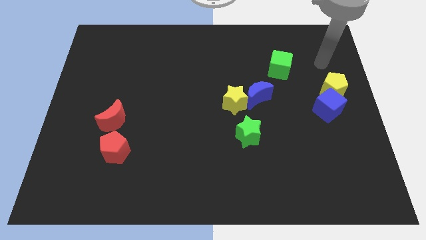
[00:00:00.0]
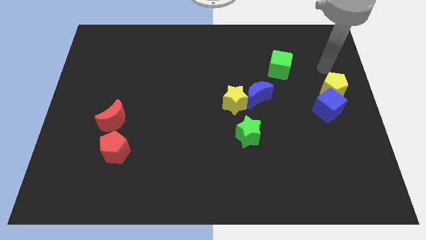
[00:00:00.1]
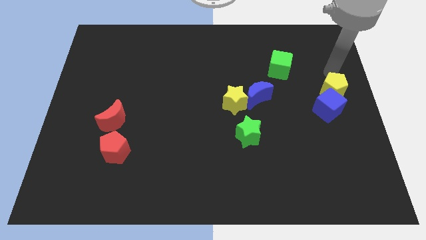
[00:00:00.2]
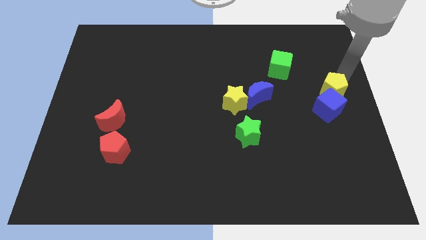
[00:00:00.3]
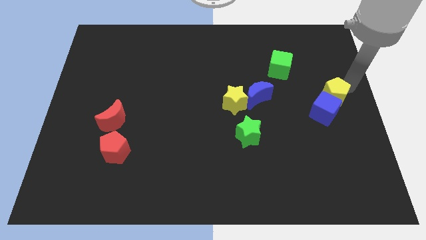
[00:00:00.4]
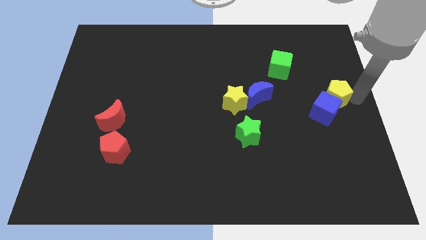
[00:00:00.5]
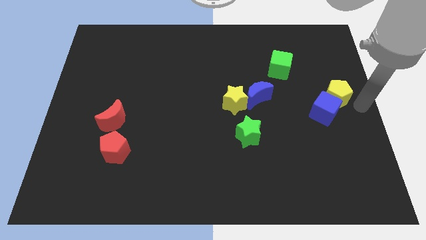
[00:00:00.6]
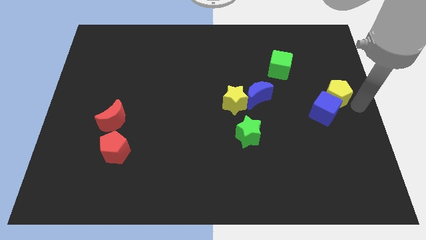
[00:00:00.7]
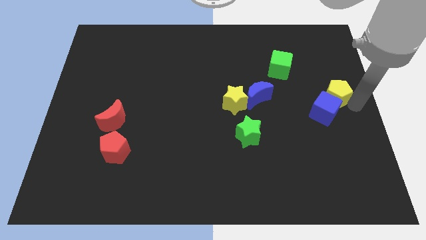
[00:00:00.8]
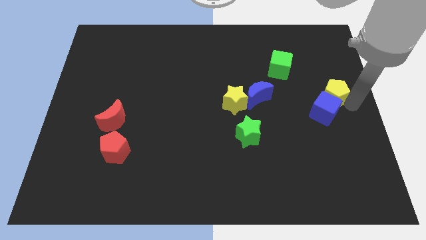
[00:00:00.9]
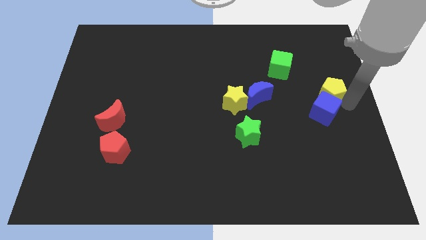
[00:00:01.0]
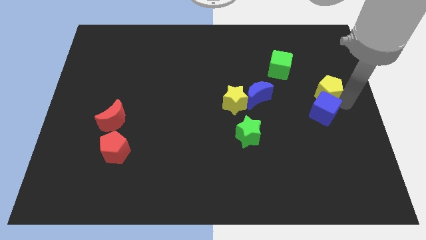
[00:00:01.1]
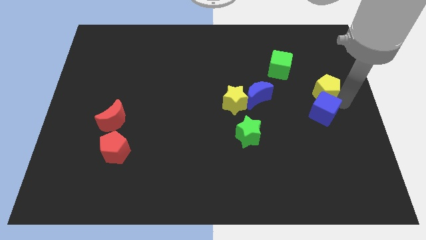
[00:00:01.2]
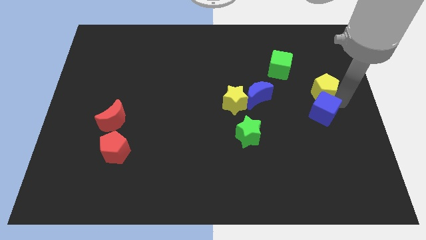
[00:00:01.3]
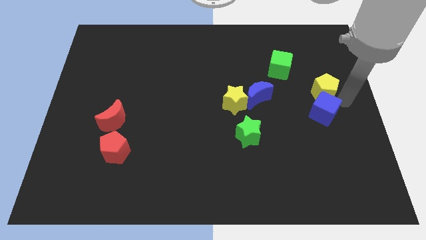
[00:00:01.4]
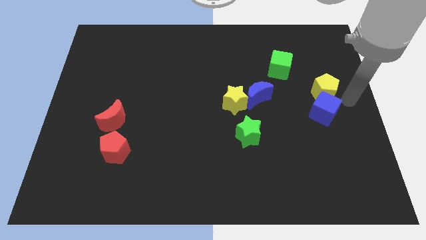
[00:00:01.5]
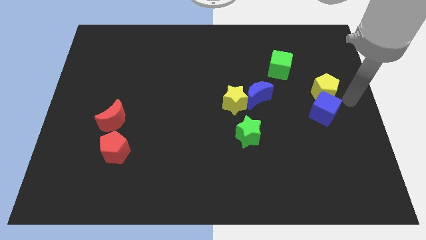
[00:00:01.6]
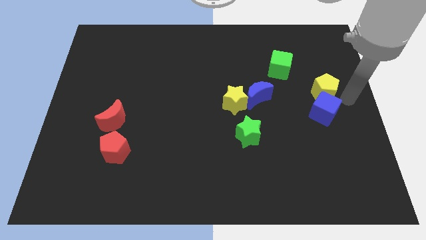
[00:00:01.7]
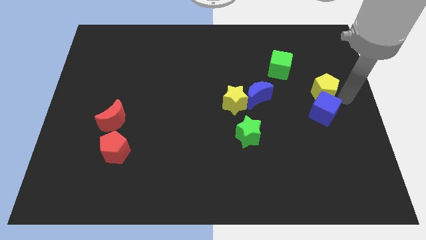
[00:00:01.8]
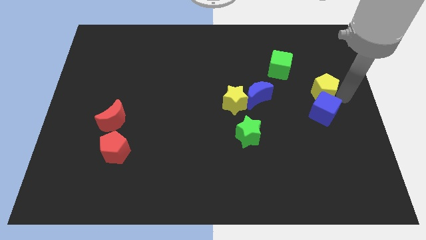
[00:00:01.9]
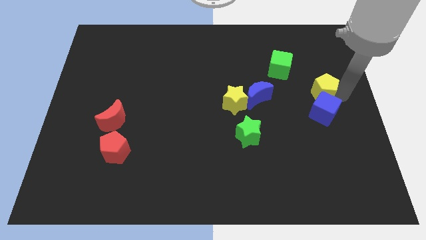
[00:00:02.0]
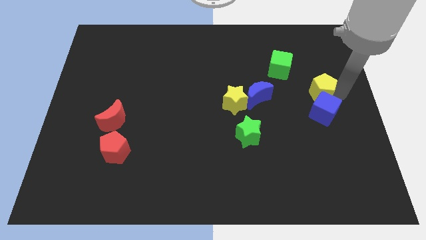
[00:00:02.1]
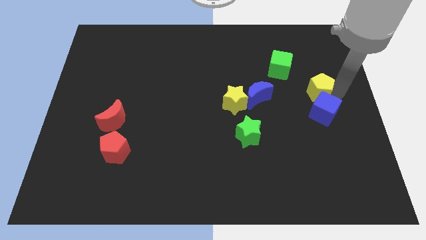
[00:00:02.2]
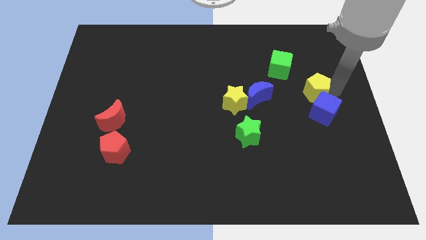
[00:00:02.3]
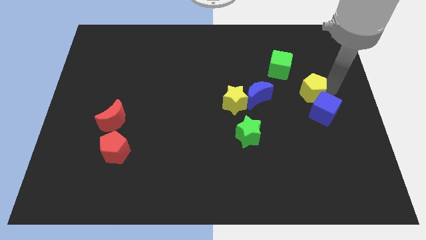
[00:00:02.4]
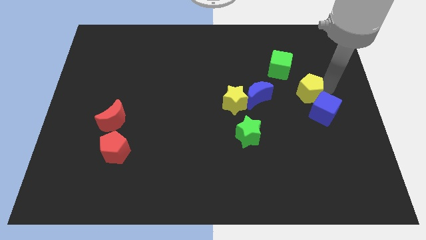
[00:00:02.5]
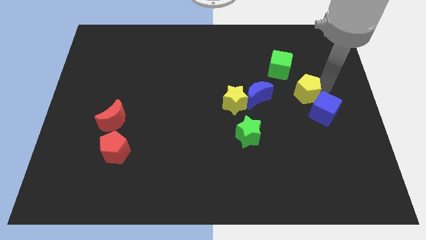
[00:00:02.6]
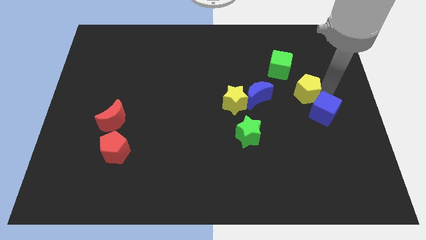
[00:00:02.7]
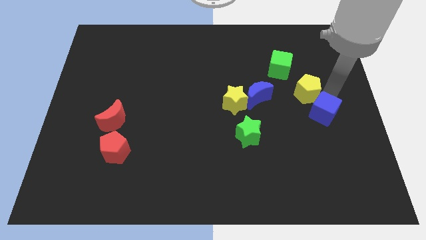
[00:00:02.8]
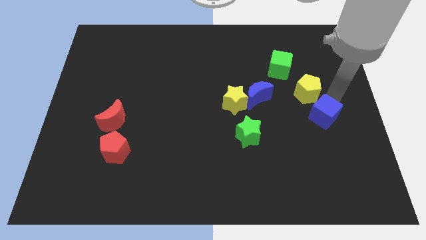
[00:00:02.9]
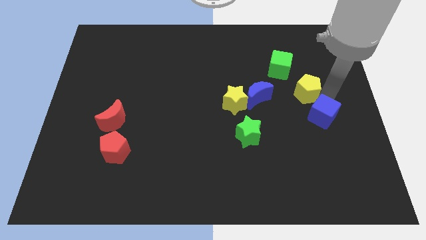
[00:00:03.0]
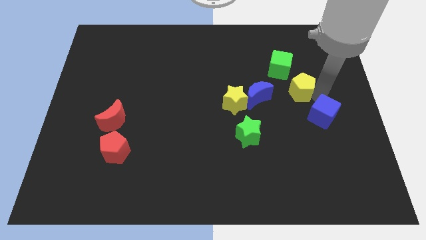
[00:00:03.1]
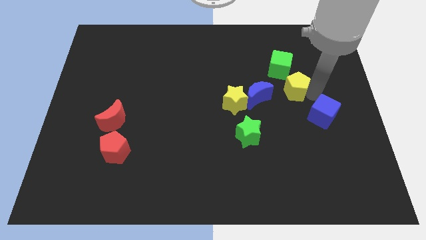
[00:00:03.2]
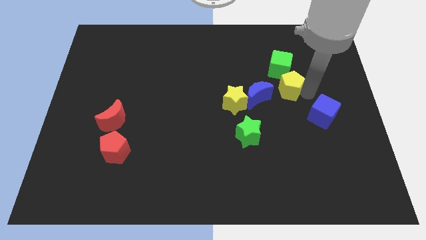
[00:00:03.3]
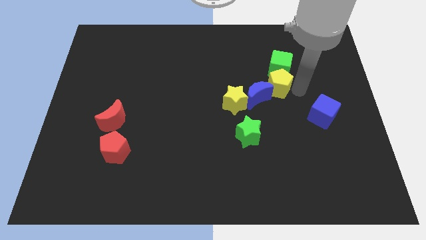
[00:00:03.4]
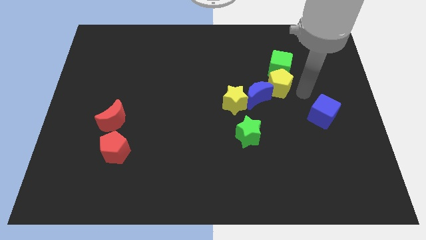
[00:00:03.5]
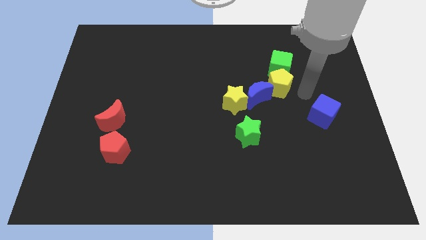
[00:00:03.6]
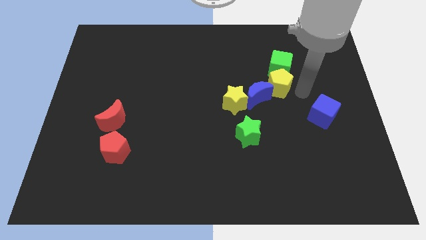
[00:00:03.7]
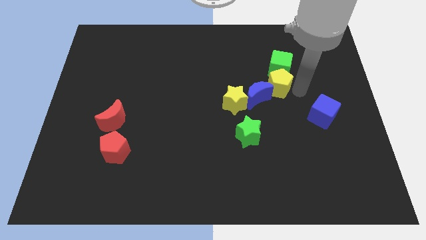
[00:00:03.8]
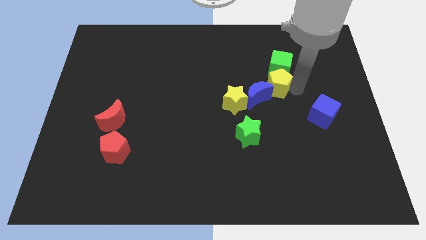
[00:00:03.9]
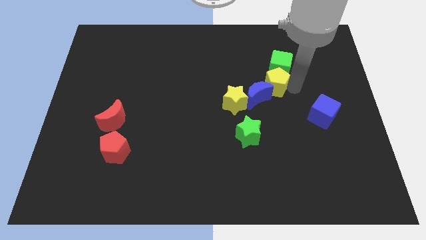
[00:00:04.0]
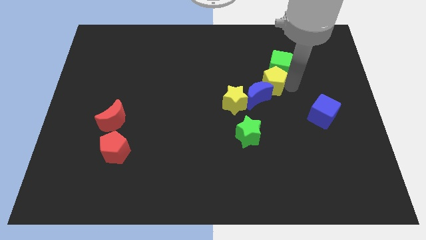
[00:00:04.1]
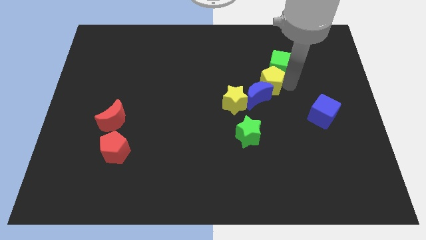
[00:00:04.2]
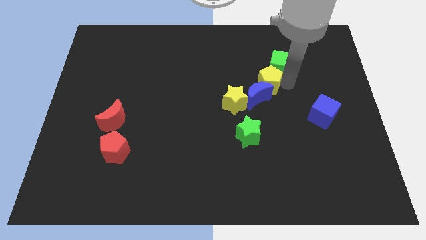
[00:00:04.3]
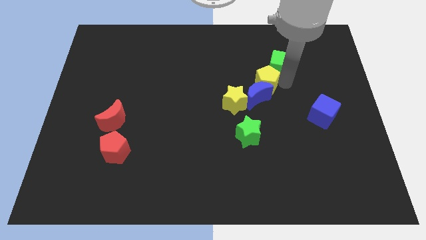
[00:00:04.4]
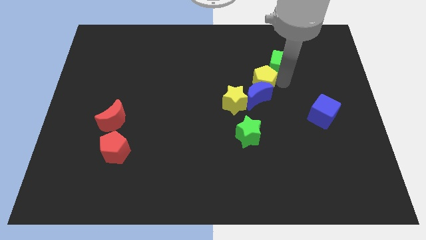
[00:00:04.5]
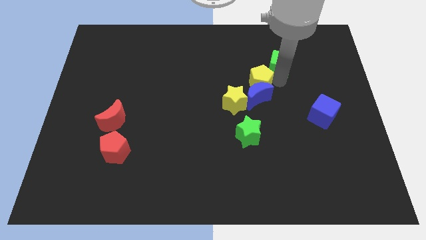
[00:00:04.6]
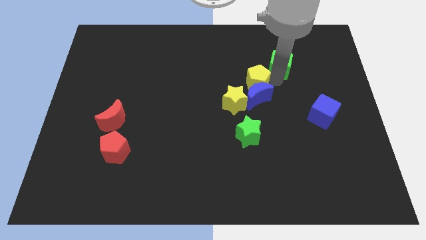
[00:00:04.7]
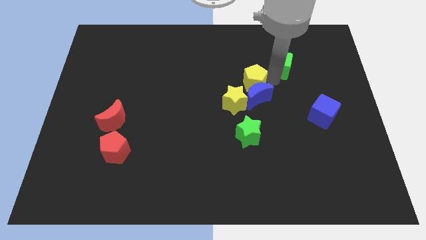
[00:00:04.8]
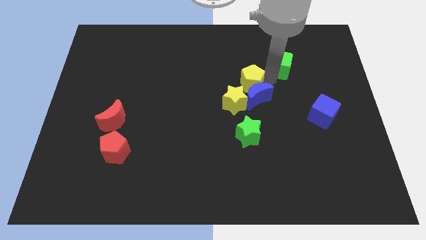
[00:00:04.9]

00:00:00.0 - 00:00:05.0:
push the yellow pentagon to the top side of the yellow star

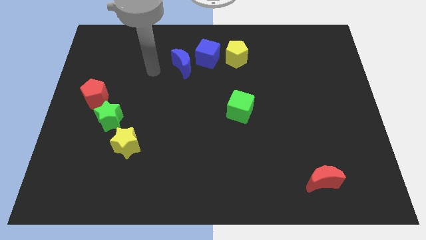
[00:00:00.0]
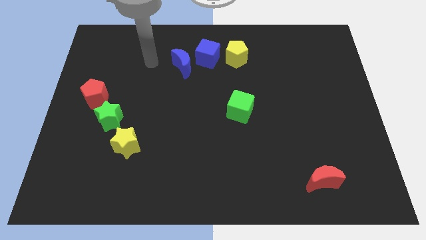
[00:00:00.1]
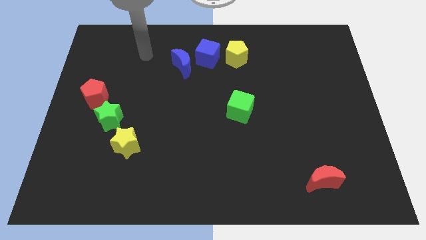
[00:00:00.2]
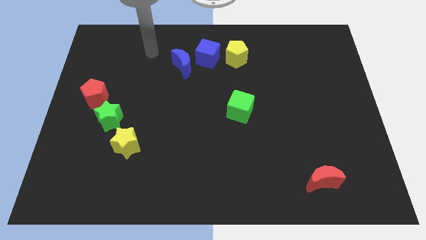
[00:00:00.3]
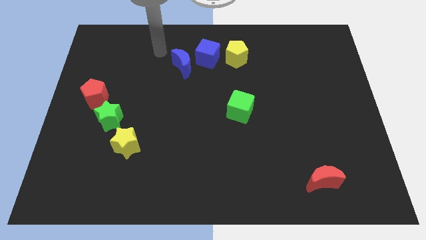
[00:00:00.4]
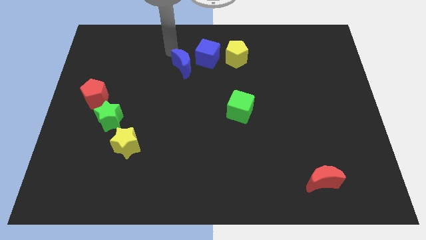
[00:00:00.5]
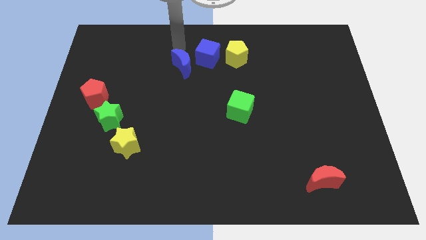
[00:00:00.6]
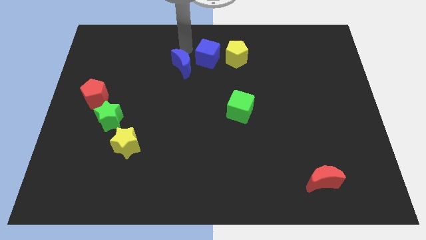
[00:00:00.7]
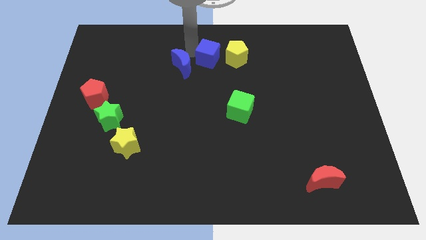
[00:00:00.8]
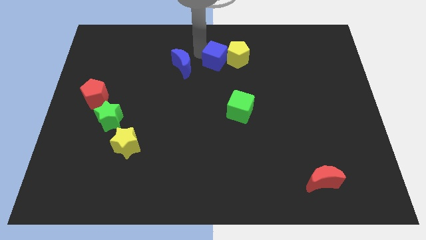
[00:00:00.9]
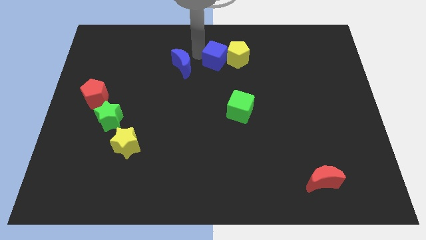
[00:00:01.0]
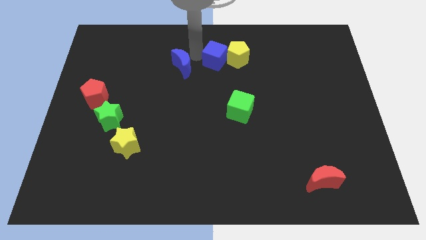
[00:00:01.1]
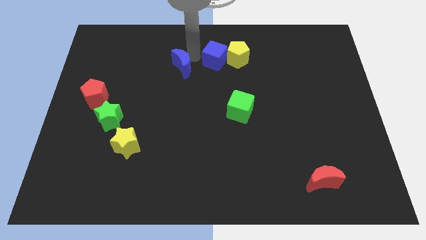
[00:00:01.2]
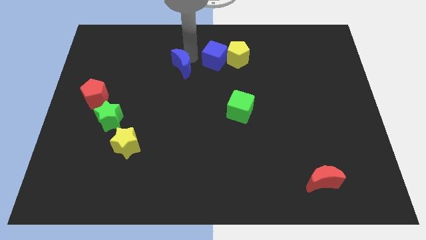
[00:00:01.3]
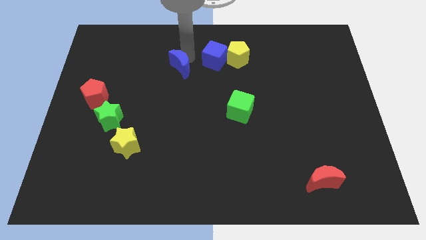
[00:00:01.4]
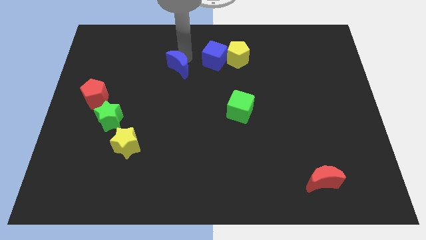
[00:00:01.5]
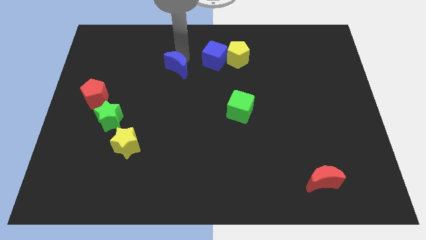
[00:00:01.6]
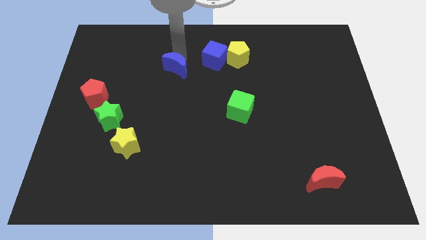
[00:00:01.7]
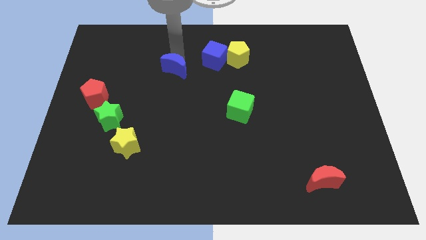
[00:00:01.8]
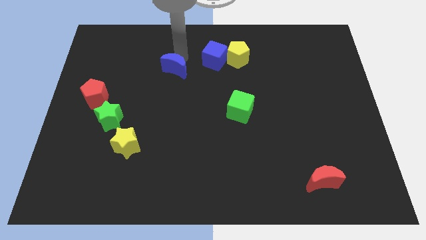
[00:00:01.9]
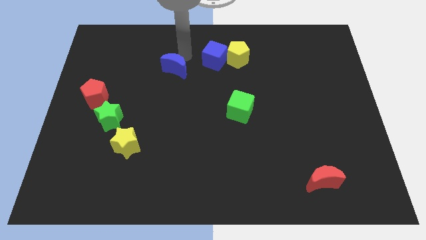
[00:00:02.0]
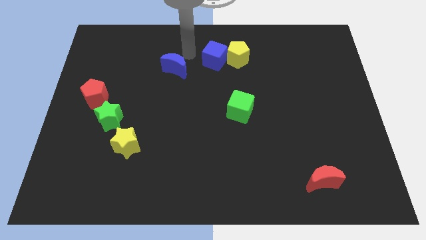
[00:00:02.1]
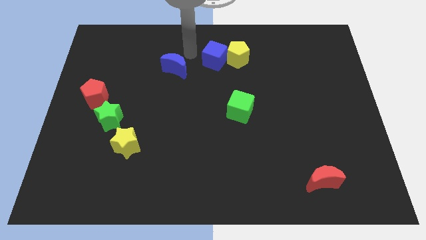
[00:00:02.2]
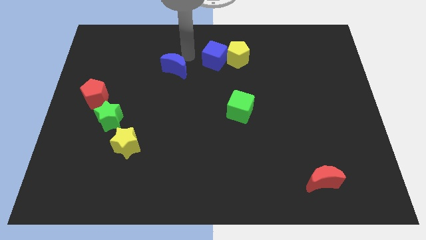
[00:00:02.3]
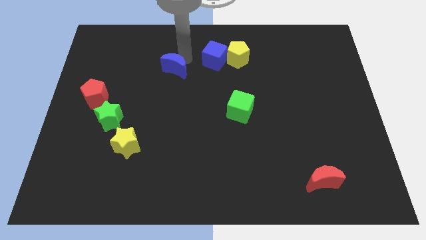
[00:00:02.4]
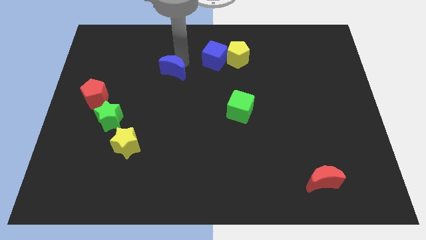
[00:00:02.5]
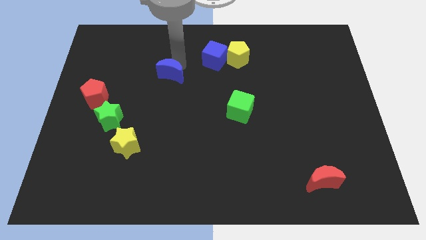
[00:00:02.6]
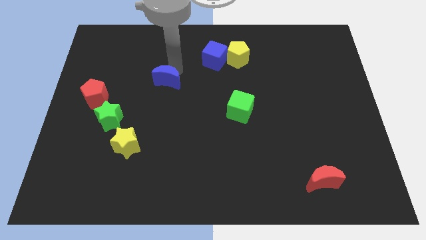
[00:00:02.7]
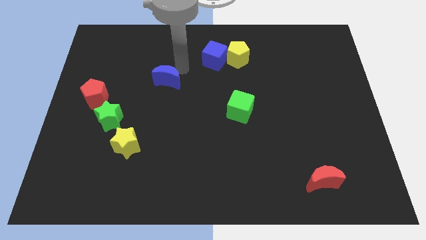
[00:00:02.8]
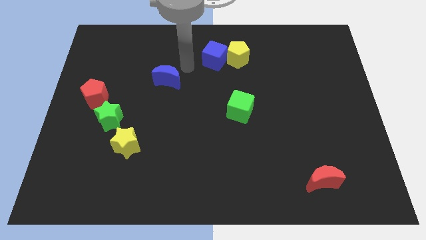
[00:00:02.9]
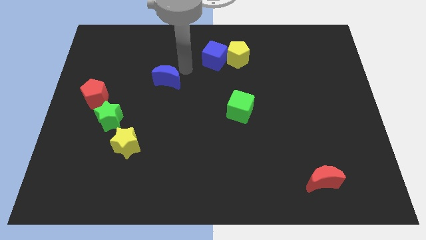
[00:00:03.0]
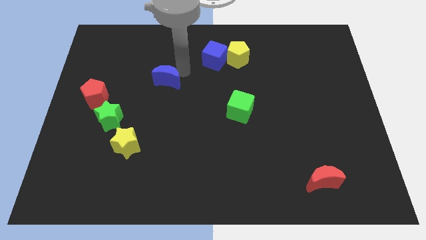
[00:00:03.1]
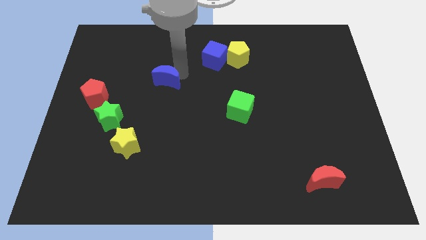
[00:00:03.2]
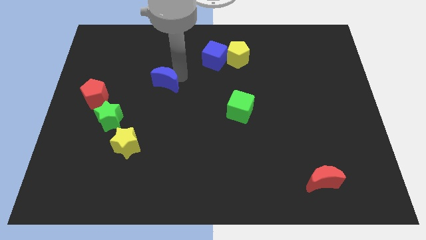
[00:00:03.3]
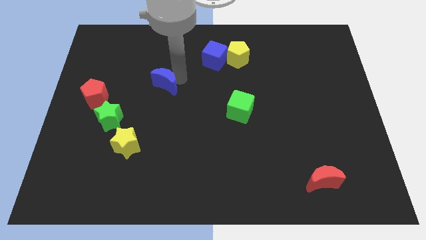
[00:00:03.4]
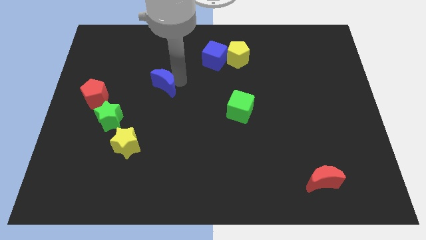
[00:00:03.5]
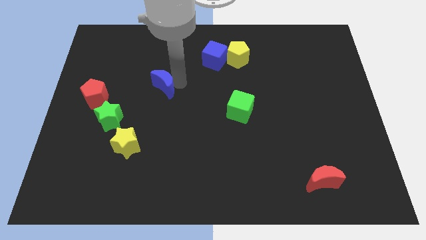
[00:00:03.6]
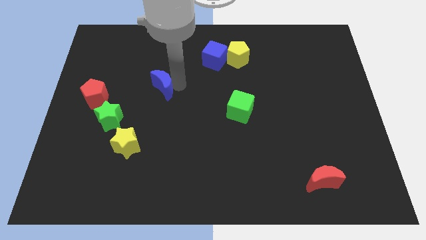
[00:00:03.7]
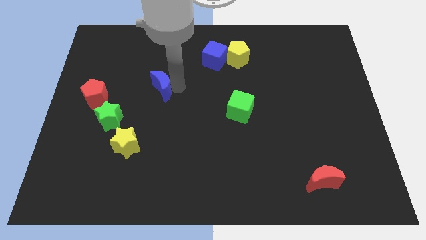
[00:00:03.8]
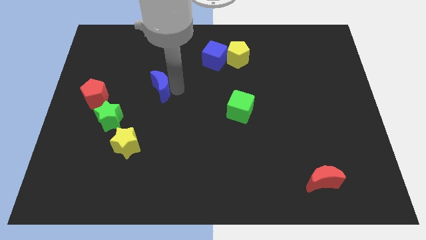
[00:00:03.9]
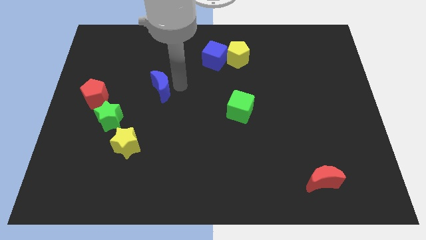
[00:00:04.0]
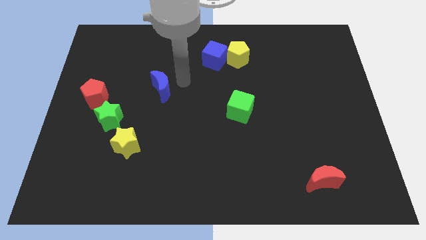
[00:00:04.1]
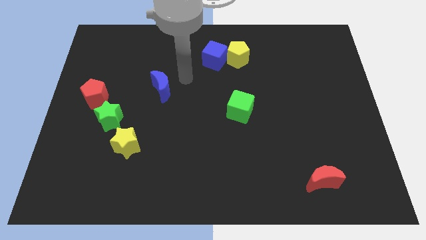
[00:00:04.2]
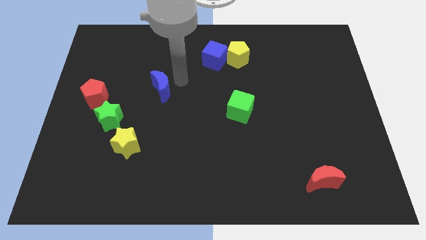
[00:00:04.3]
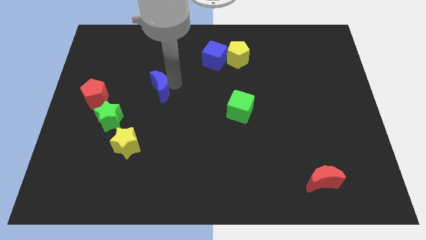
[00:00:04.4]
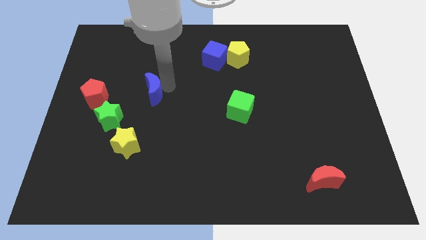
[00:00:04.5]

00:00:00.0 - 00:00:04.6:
slide the blue moon to the top right side of the green star
